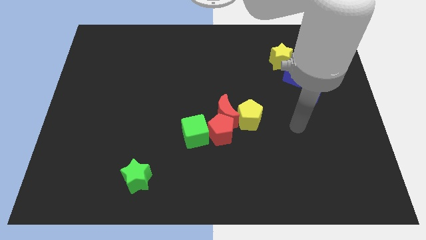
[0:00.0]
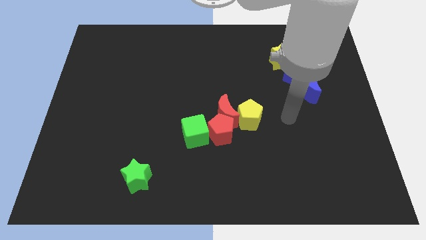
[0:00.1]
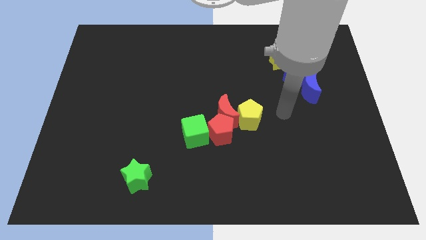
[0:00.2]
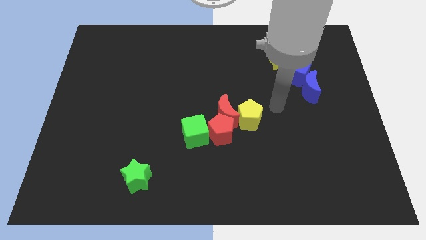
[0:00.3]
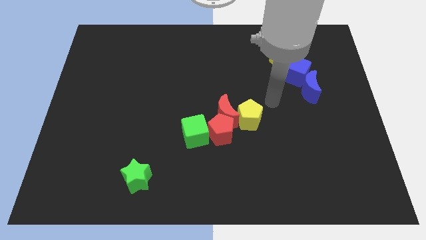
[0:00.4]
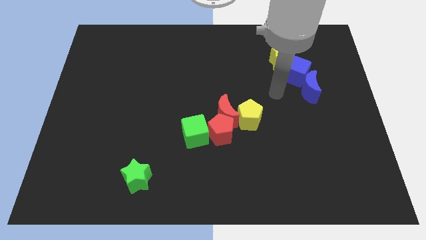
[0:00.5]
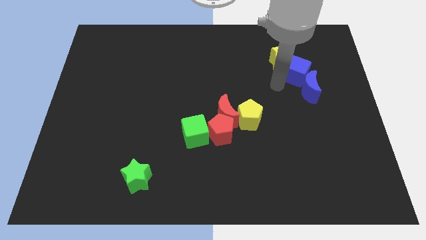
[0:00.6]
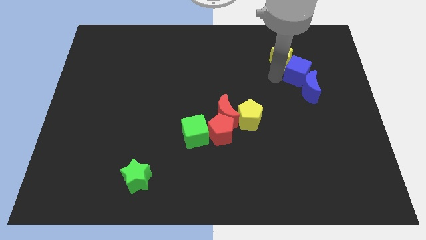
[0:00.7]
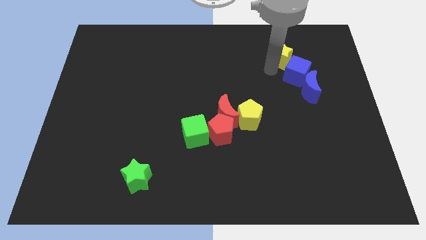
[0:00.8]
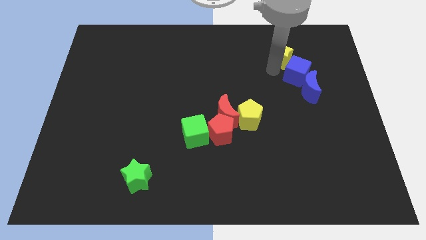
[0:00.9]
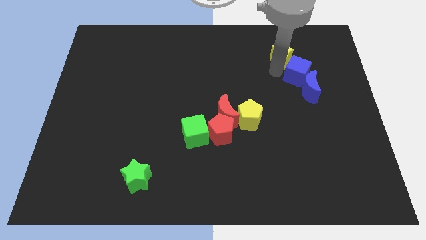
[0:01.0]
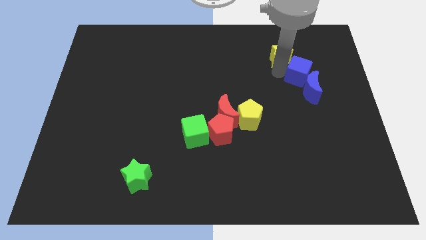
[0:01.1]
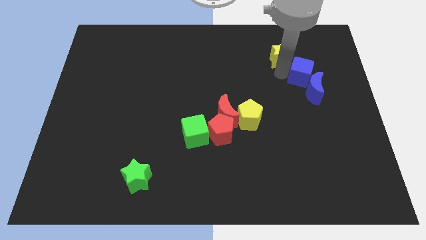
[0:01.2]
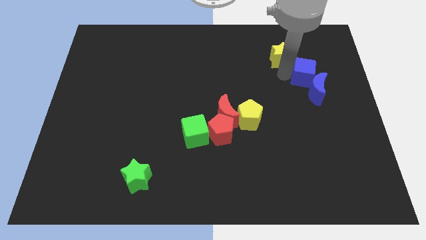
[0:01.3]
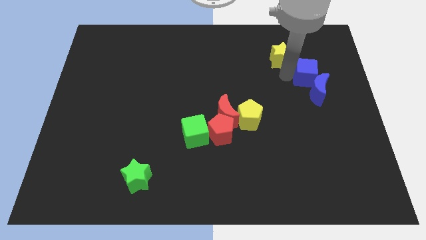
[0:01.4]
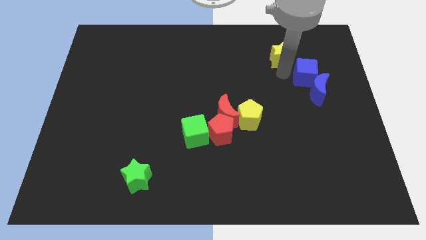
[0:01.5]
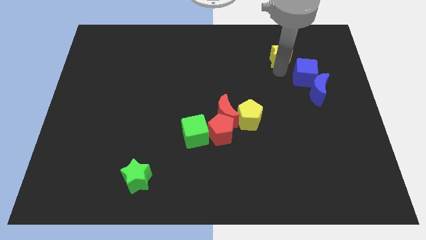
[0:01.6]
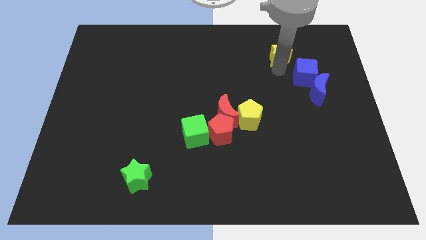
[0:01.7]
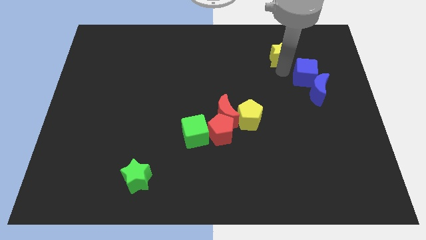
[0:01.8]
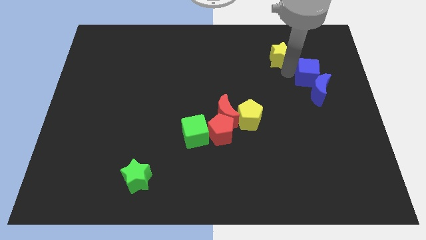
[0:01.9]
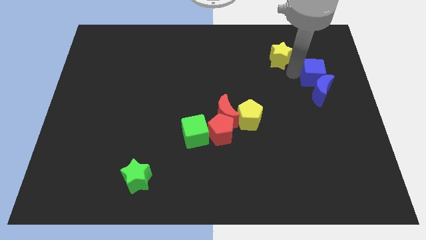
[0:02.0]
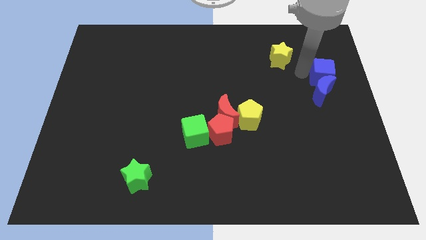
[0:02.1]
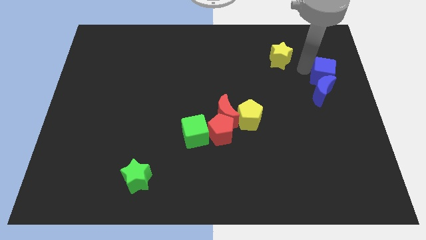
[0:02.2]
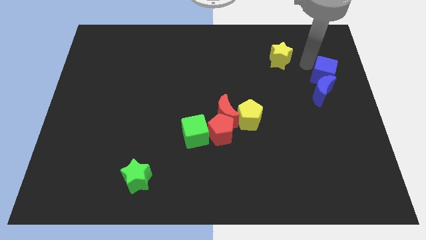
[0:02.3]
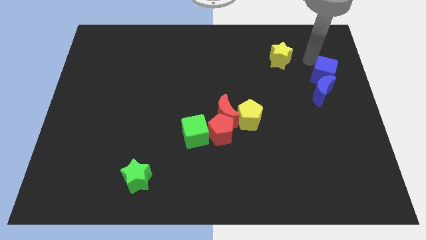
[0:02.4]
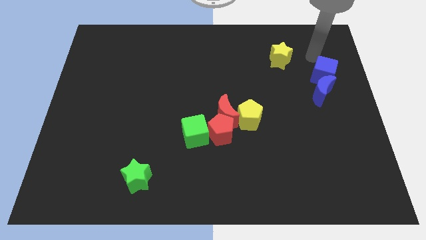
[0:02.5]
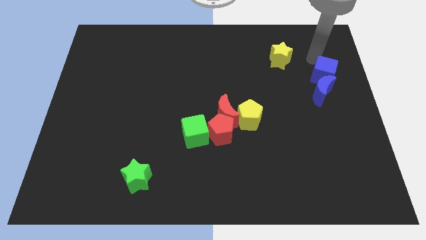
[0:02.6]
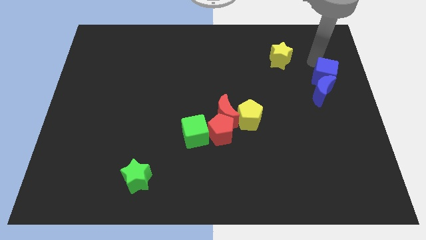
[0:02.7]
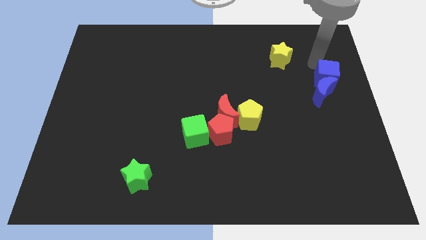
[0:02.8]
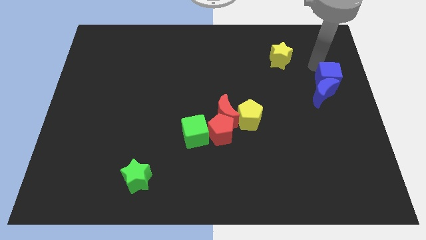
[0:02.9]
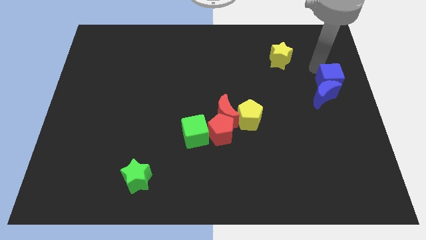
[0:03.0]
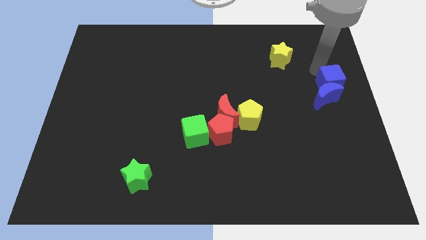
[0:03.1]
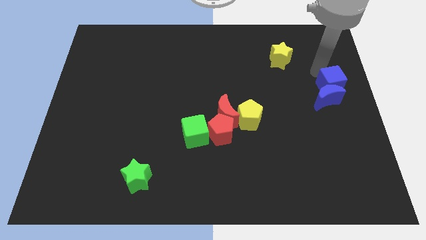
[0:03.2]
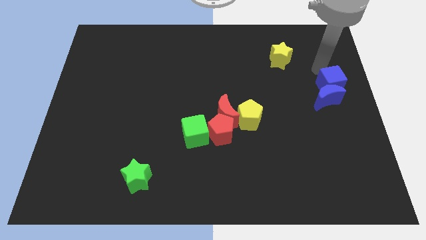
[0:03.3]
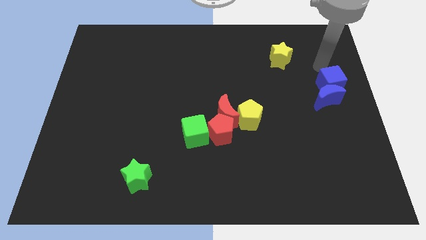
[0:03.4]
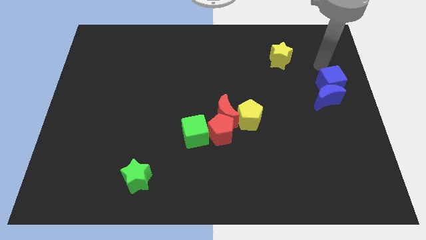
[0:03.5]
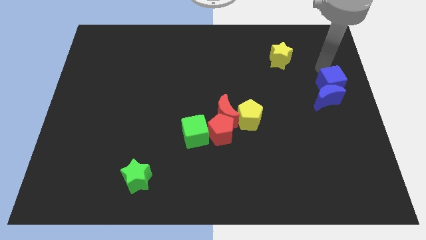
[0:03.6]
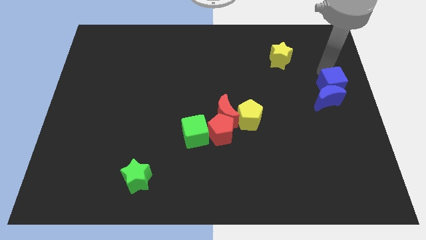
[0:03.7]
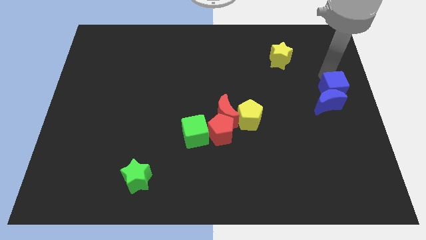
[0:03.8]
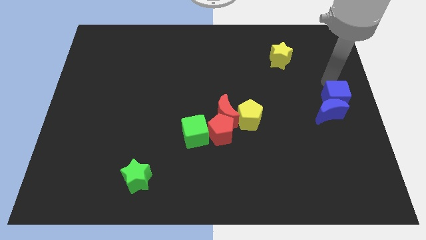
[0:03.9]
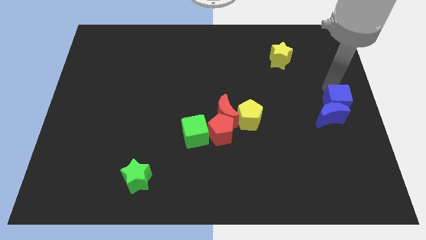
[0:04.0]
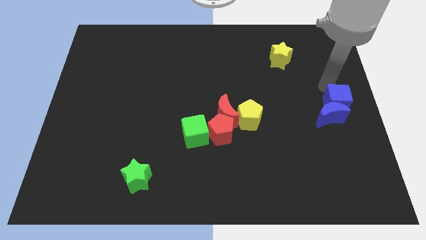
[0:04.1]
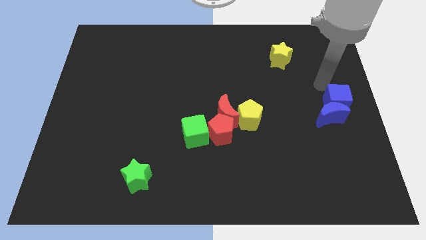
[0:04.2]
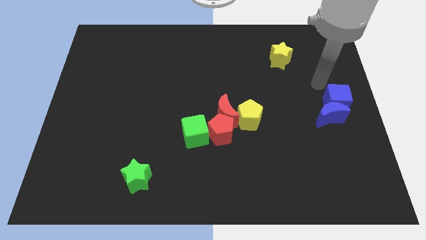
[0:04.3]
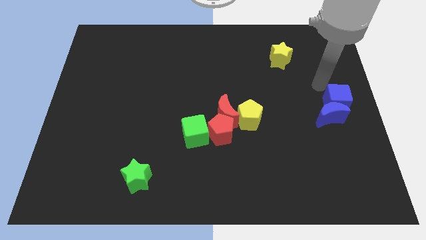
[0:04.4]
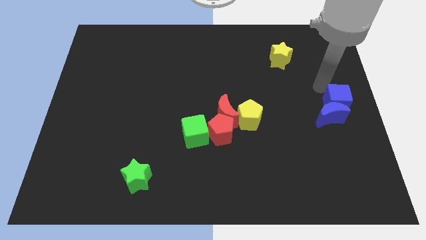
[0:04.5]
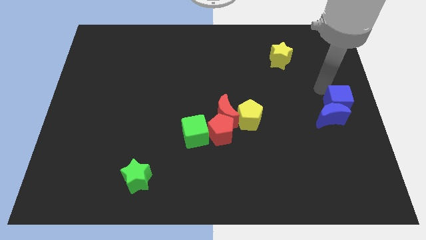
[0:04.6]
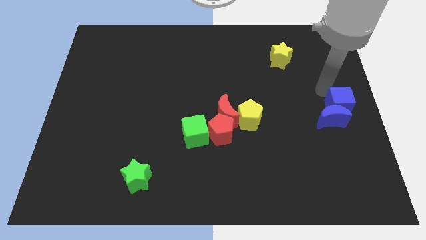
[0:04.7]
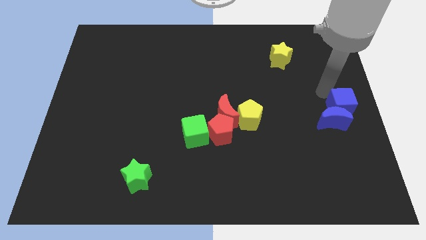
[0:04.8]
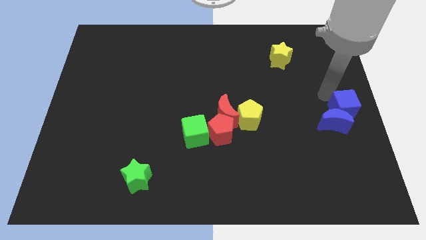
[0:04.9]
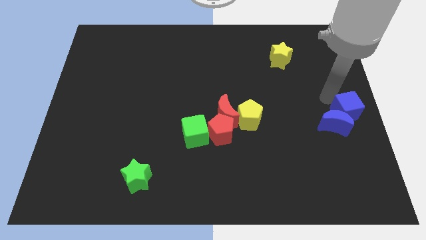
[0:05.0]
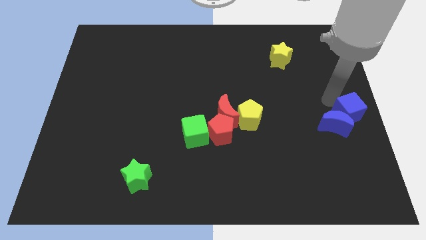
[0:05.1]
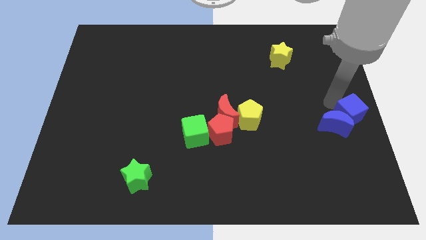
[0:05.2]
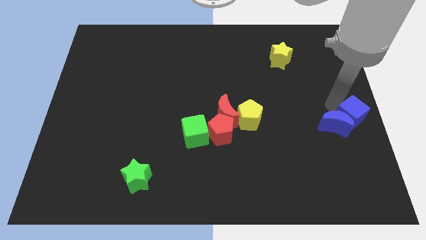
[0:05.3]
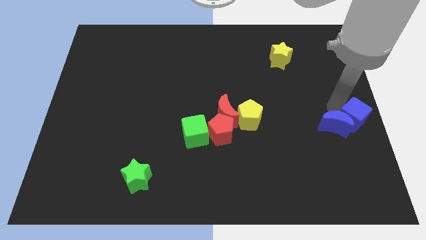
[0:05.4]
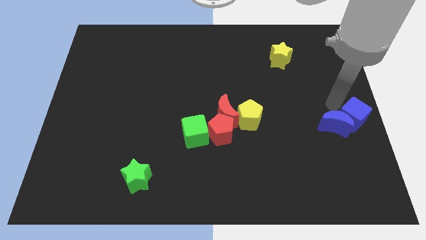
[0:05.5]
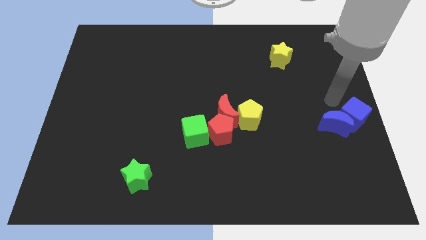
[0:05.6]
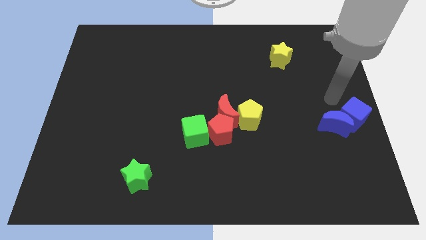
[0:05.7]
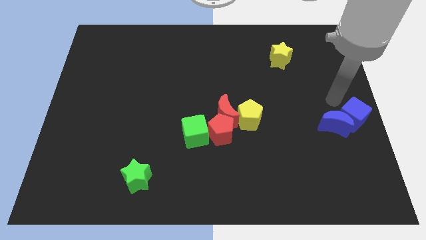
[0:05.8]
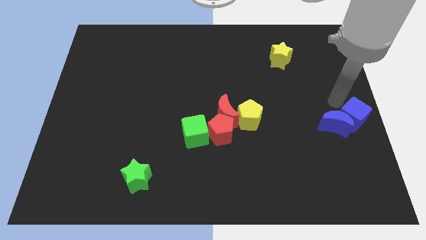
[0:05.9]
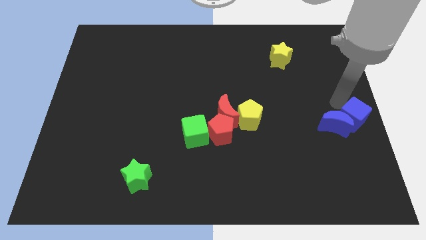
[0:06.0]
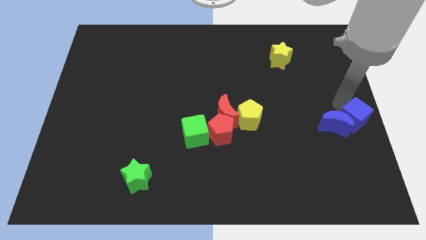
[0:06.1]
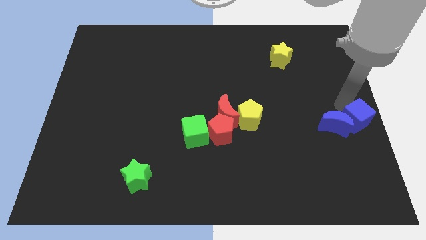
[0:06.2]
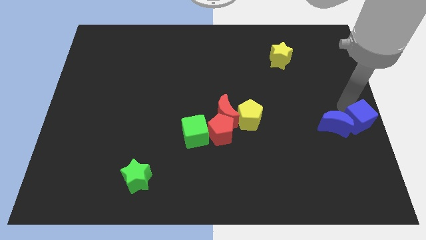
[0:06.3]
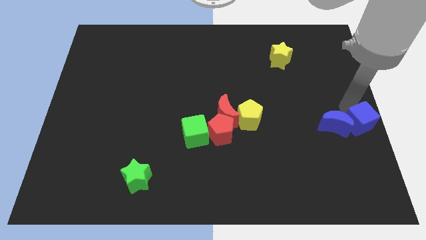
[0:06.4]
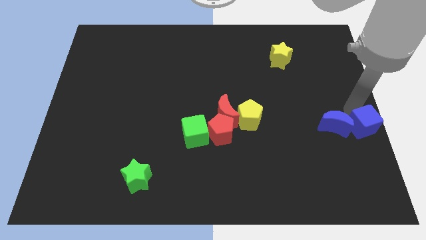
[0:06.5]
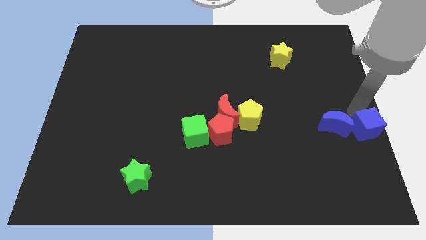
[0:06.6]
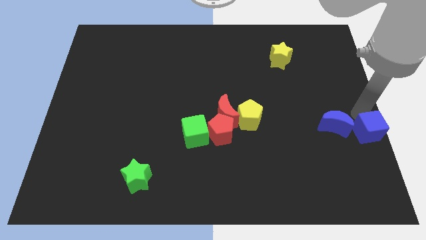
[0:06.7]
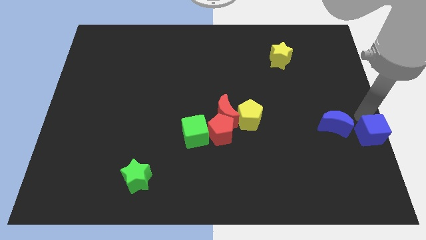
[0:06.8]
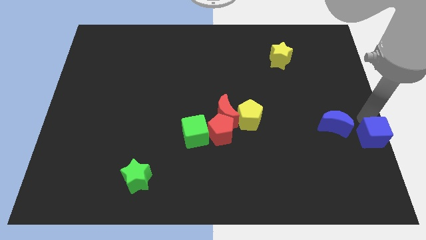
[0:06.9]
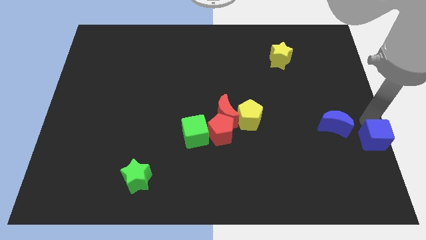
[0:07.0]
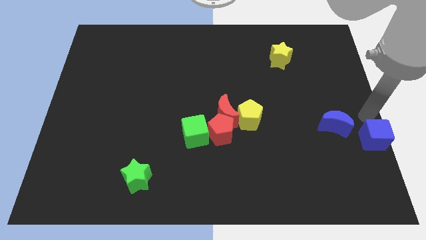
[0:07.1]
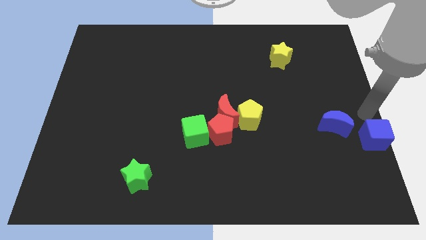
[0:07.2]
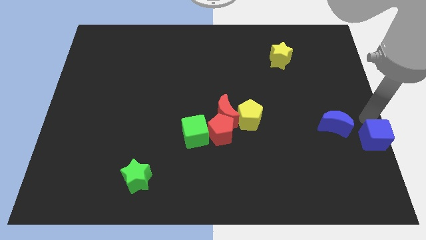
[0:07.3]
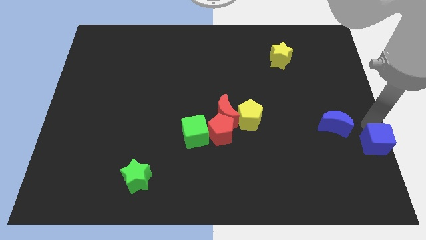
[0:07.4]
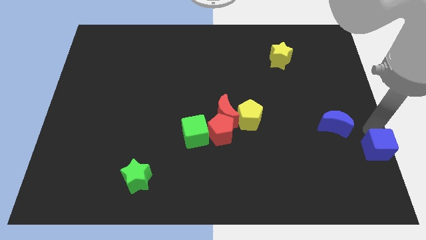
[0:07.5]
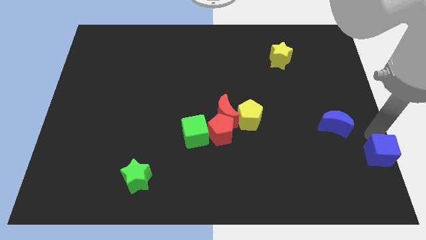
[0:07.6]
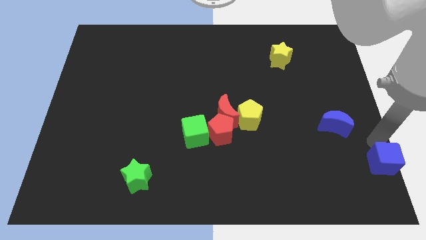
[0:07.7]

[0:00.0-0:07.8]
move the blue cube to the bottom right
